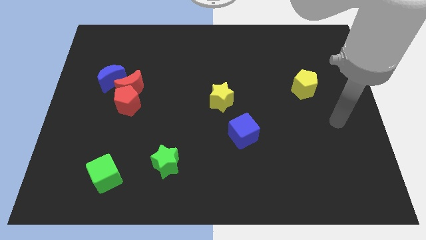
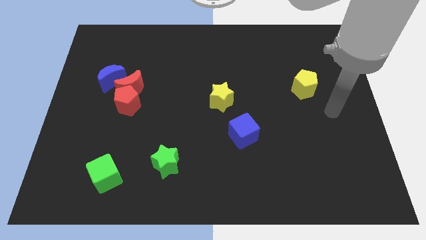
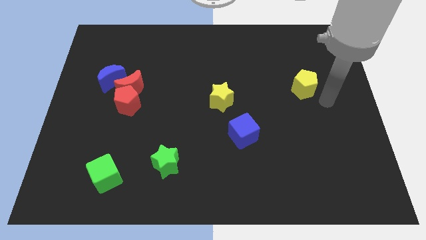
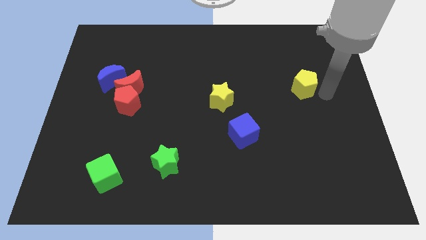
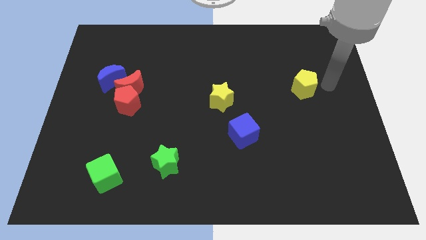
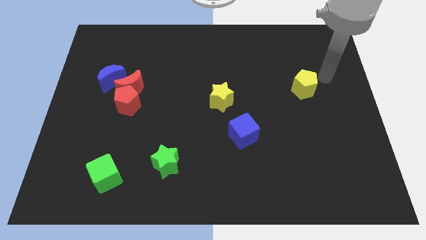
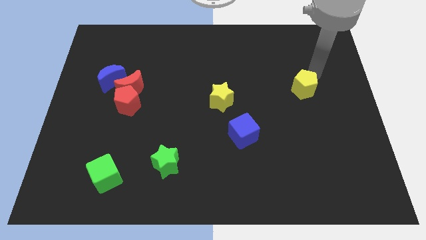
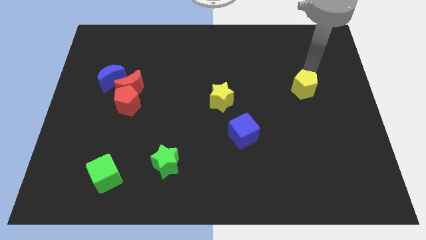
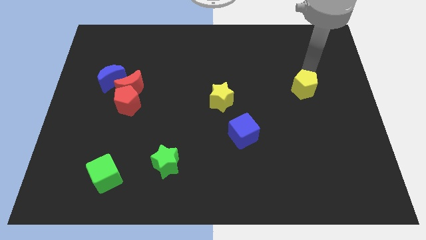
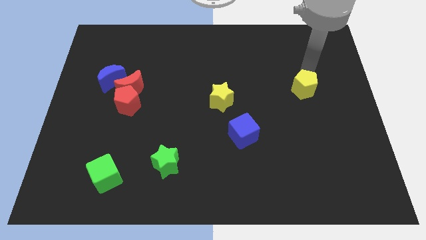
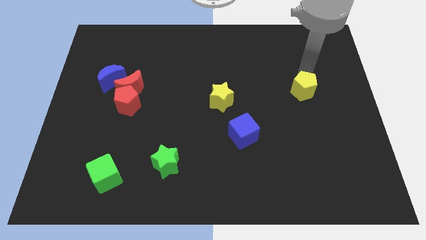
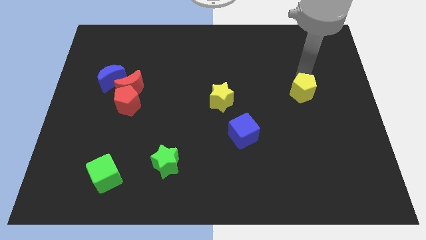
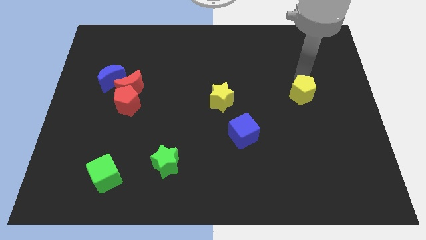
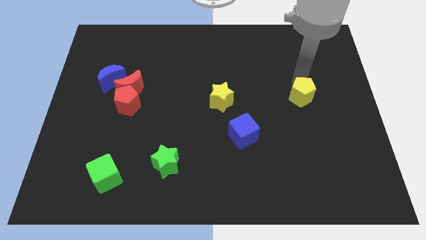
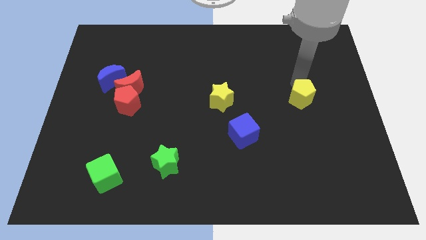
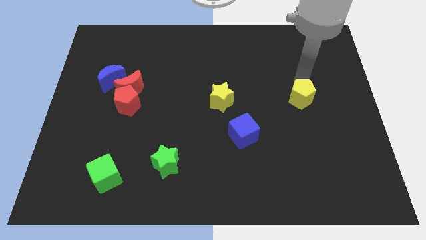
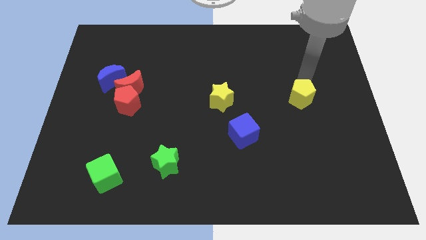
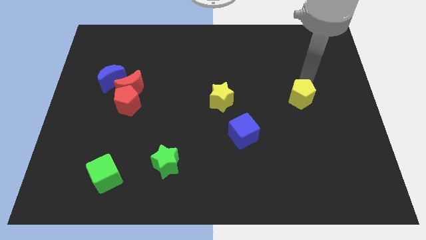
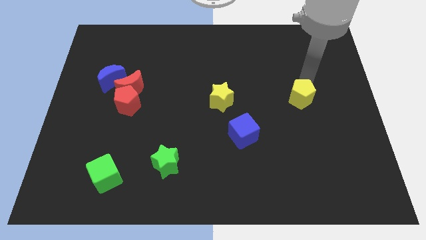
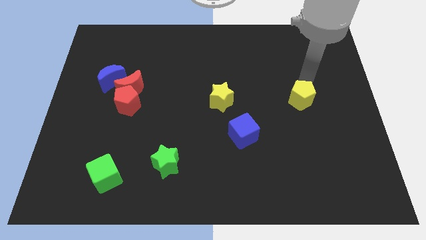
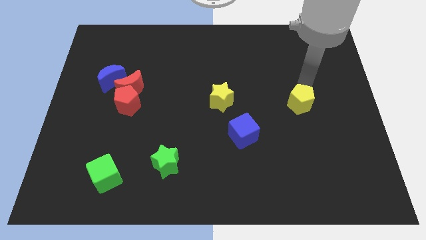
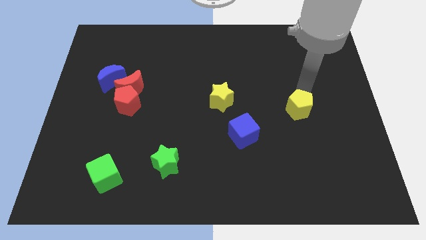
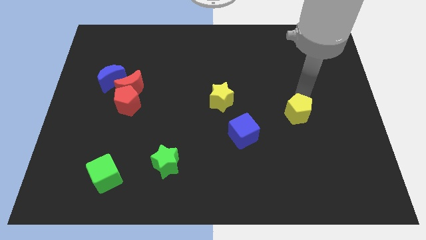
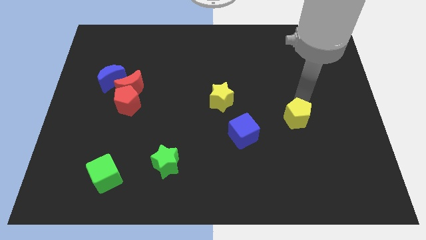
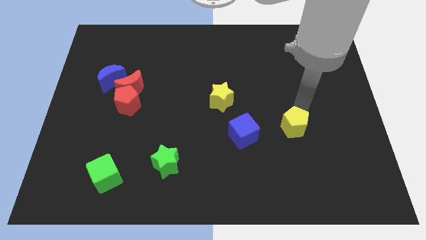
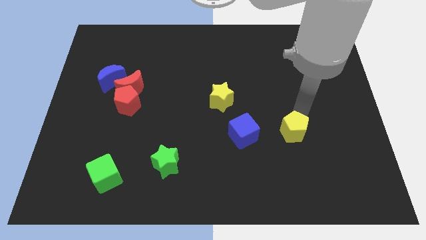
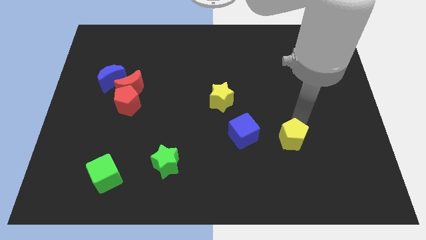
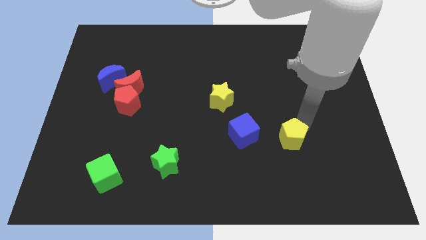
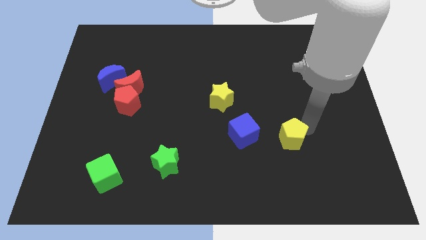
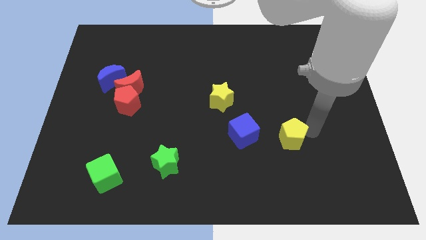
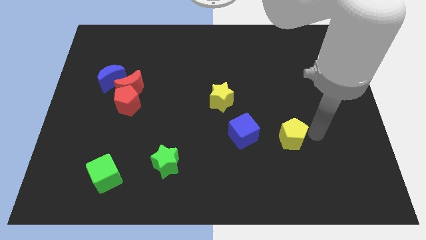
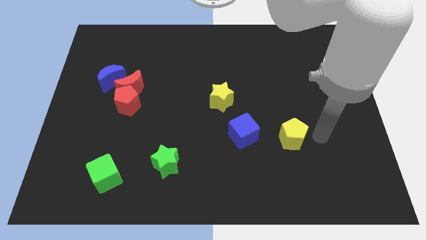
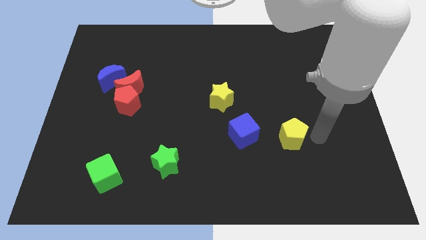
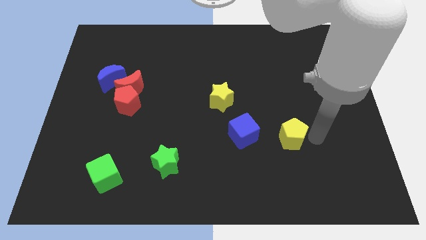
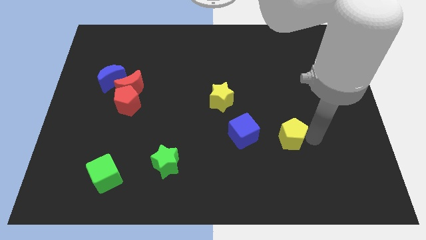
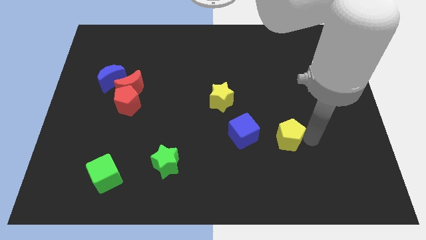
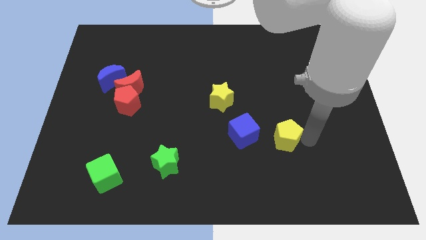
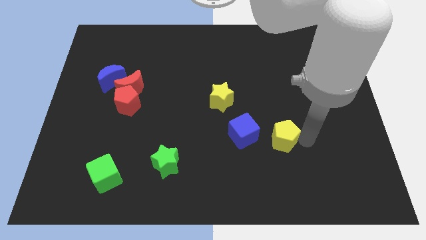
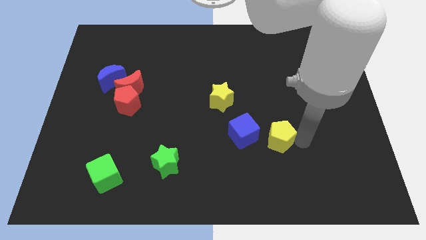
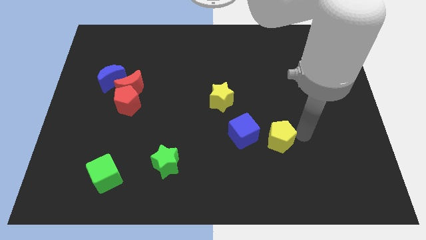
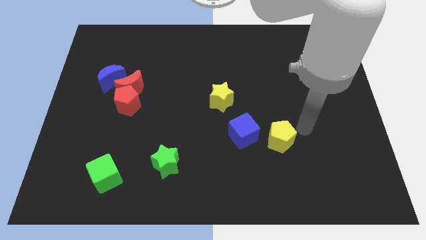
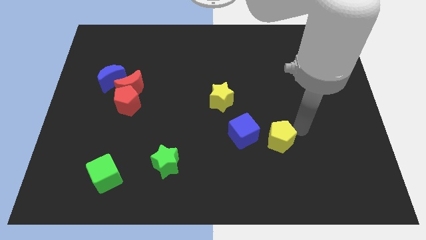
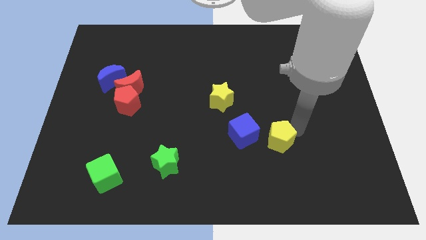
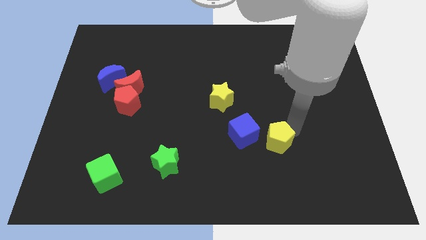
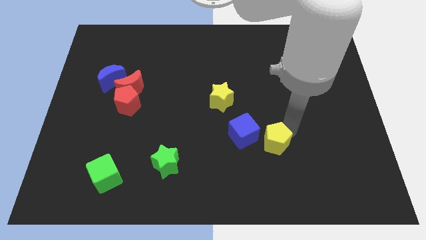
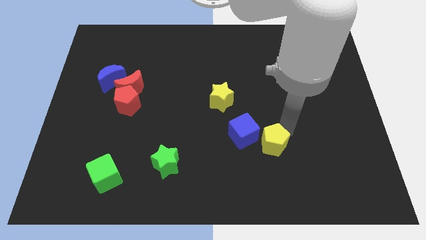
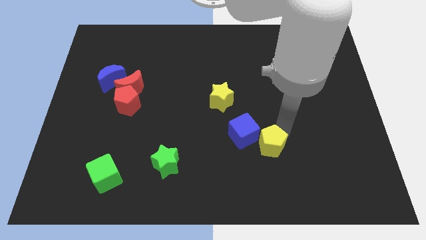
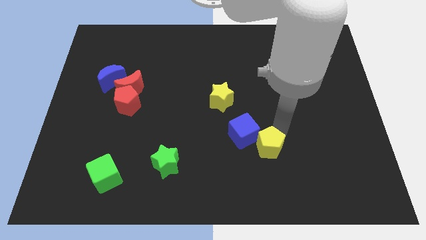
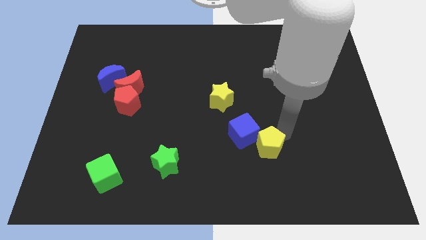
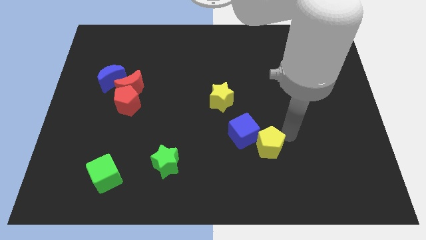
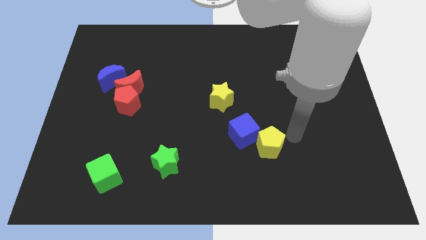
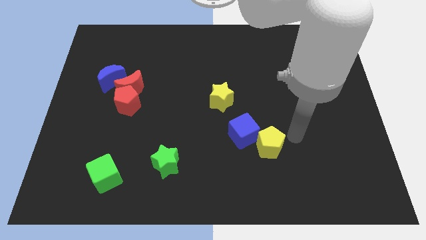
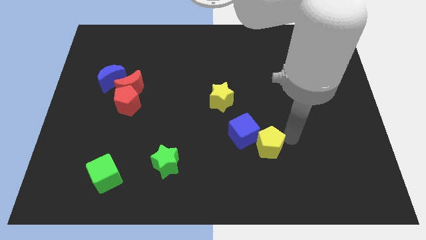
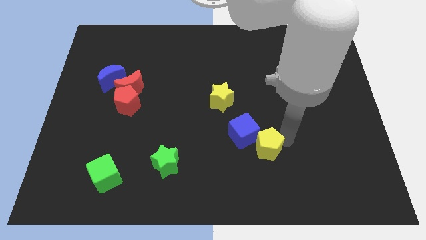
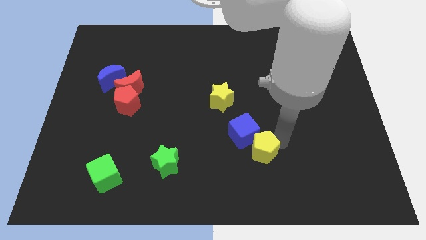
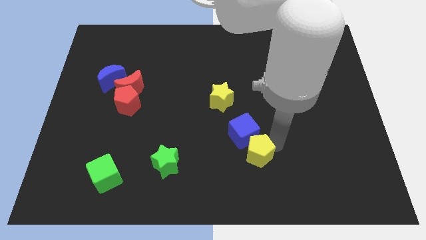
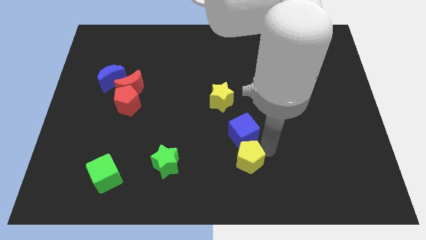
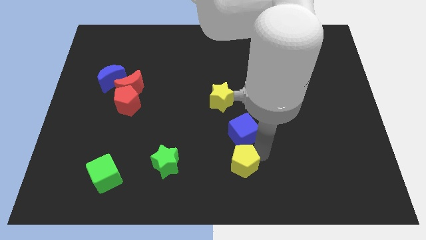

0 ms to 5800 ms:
push the yellow pentagon just right of the green star

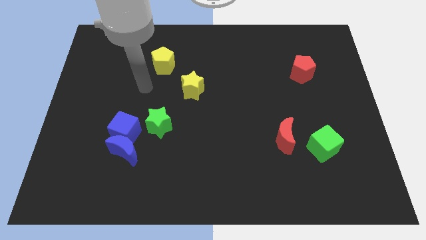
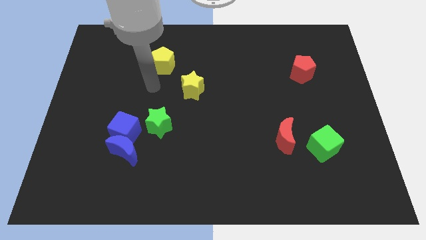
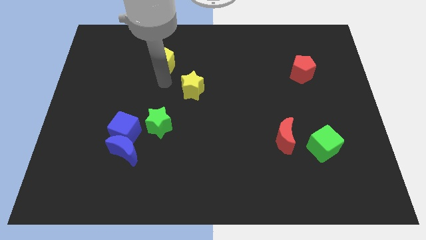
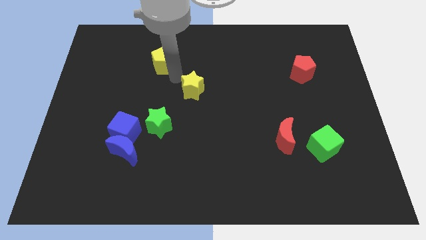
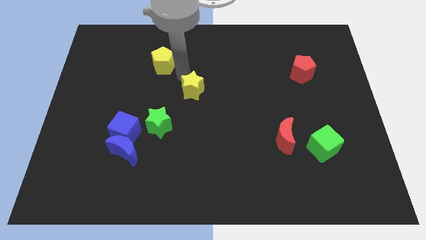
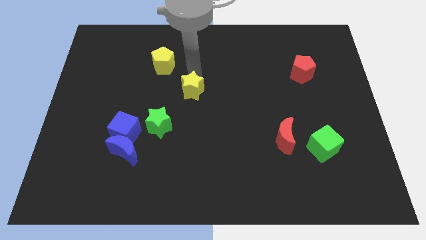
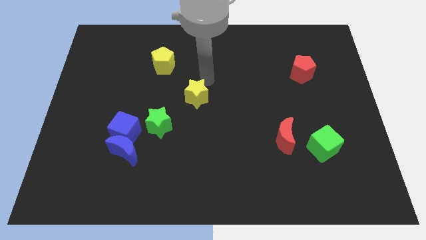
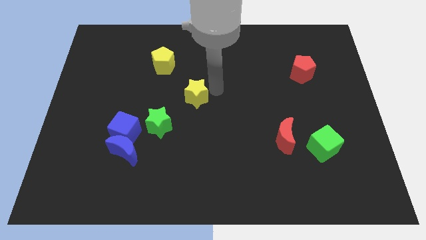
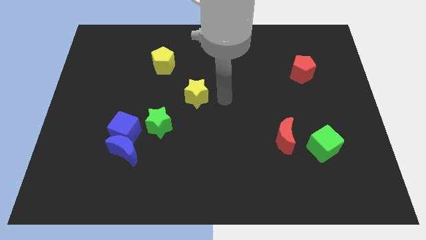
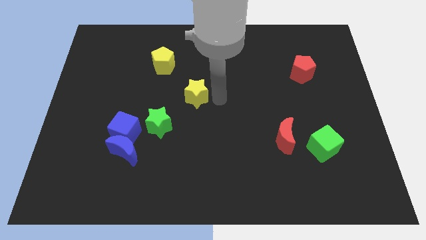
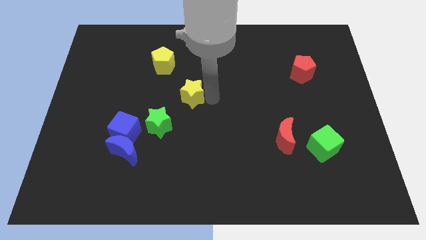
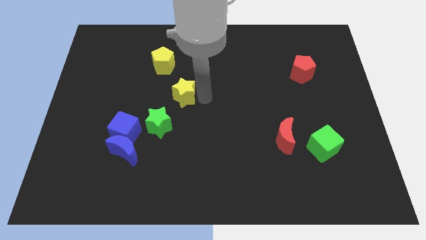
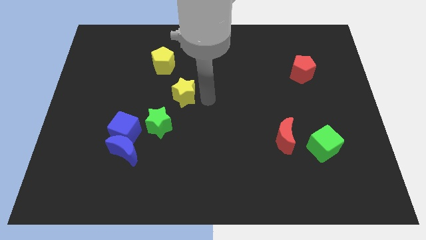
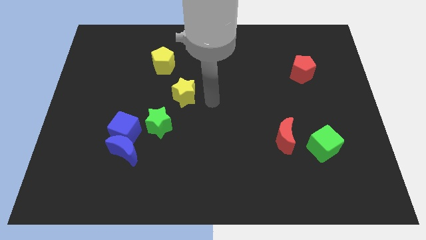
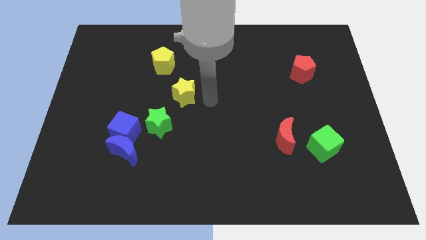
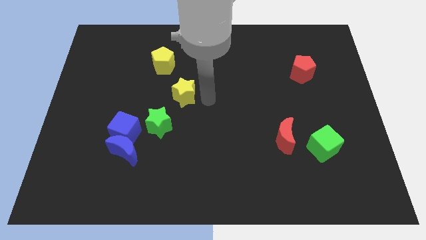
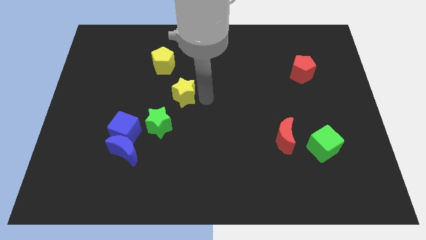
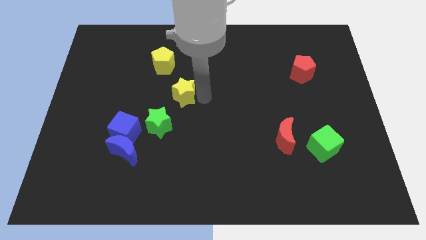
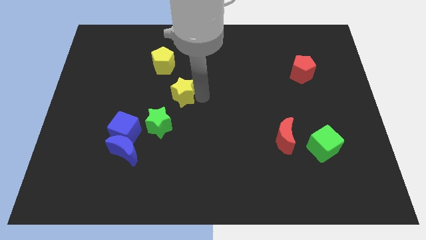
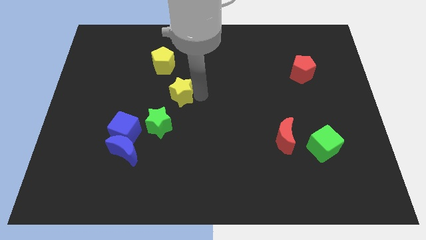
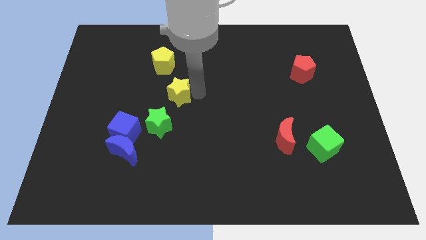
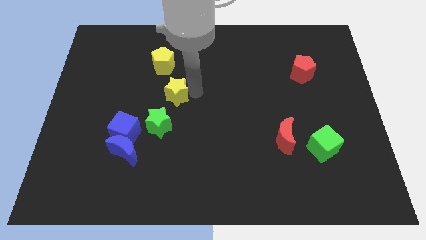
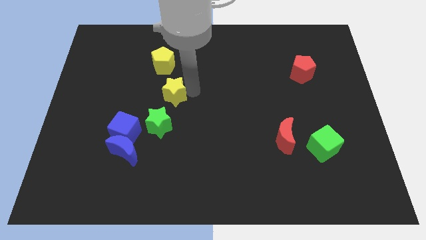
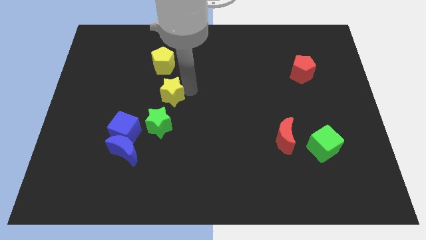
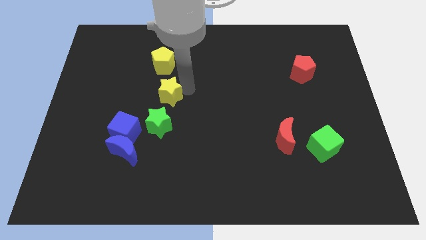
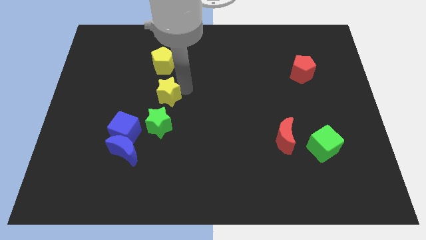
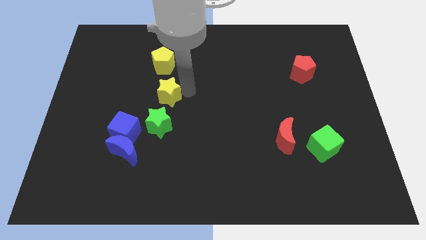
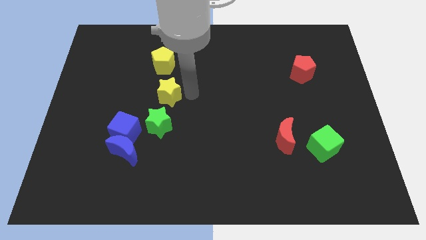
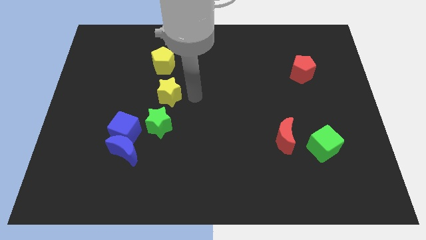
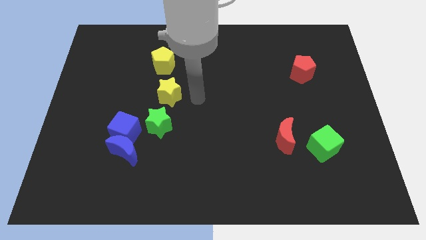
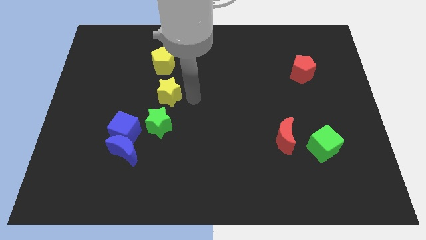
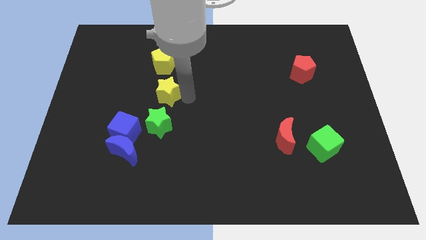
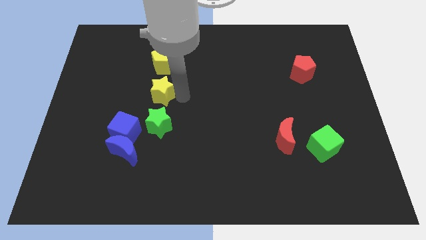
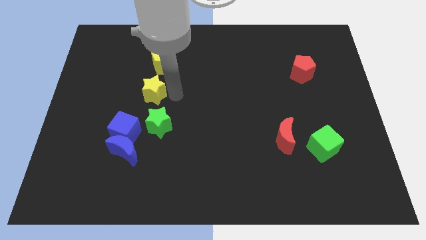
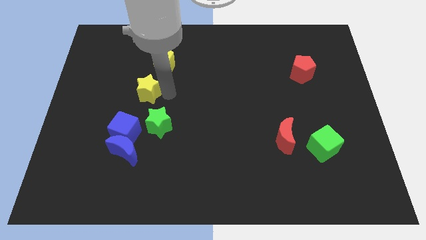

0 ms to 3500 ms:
move the yellow star above the blue cube
